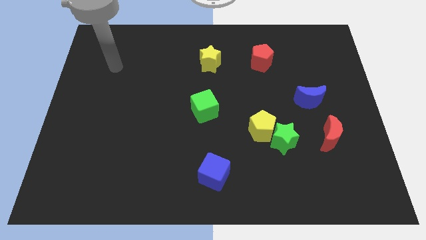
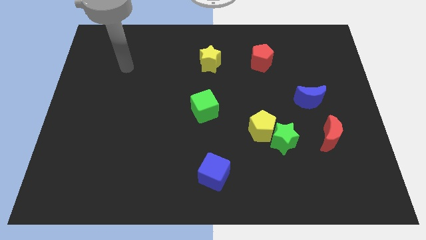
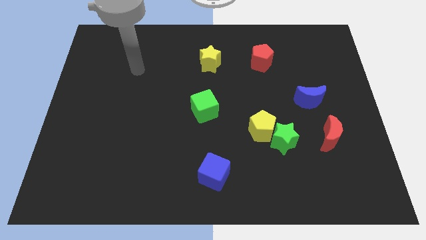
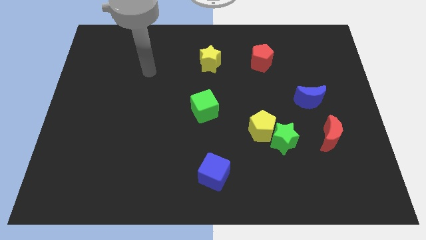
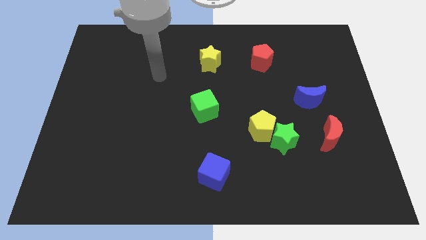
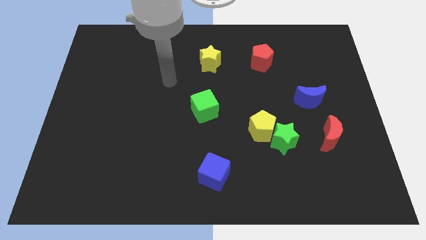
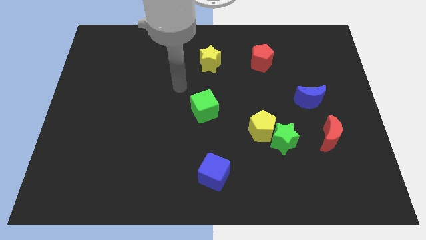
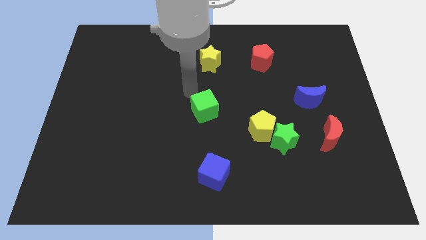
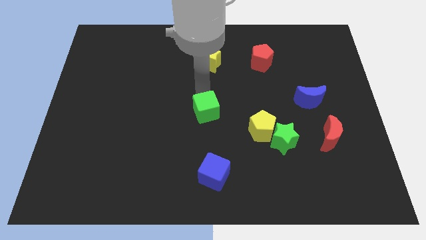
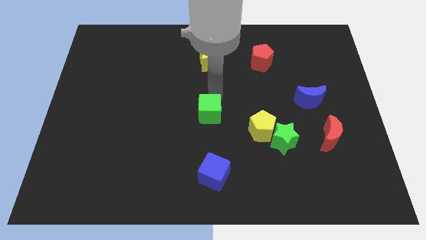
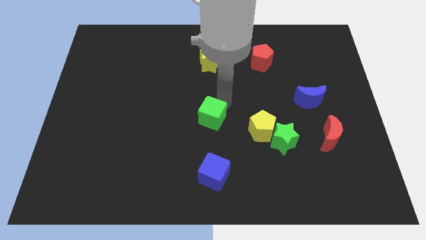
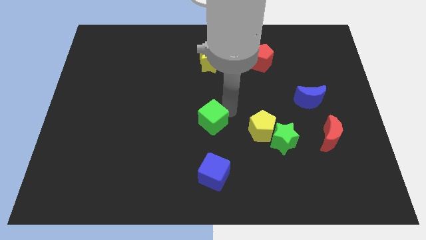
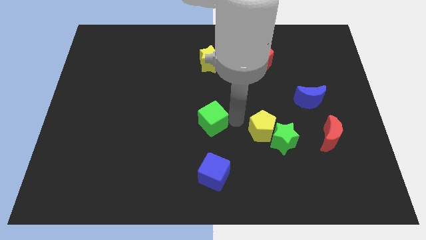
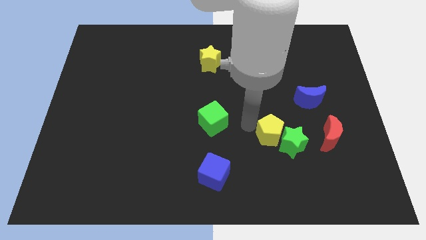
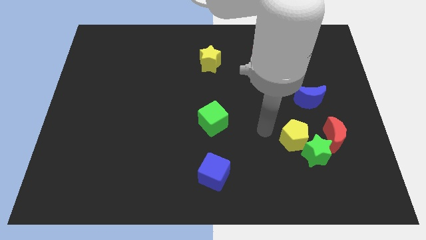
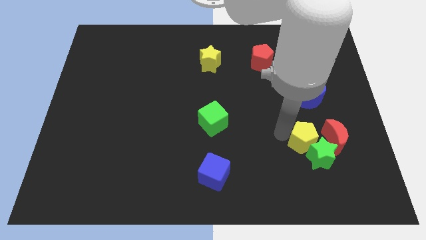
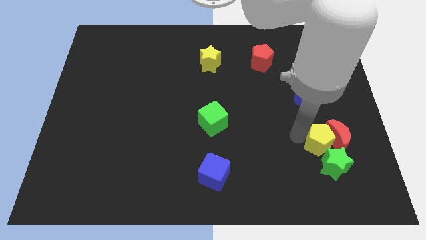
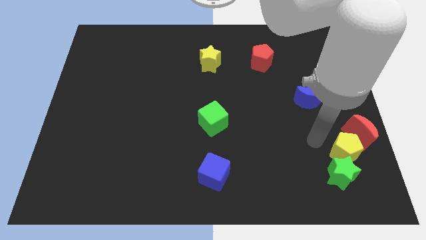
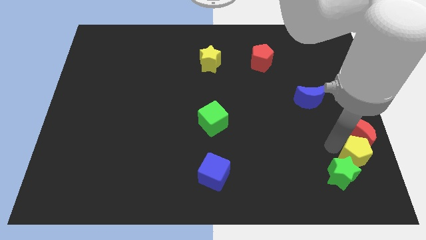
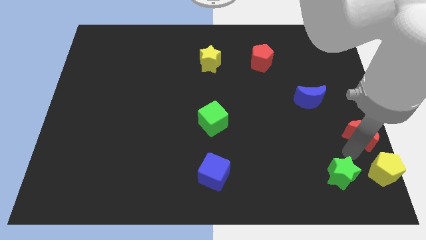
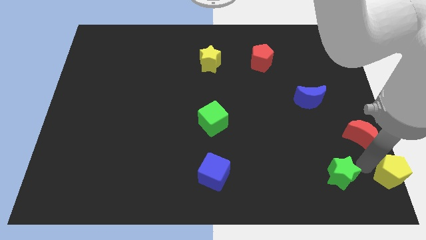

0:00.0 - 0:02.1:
move the green star away from the yellow pentagon

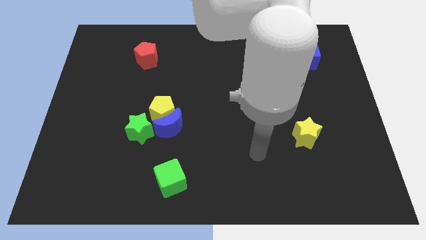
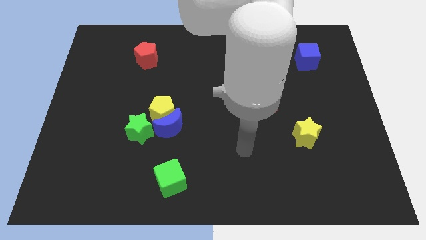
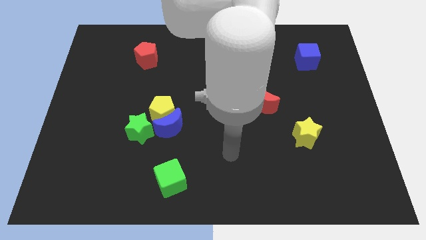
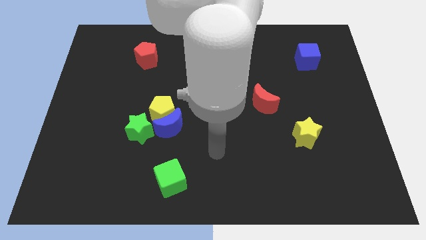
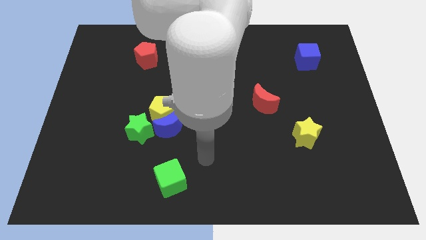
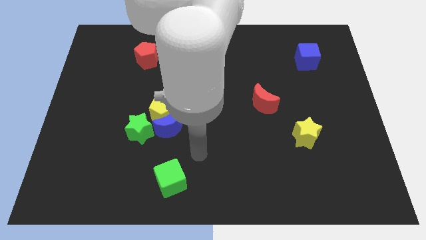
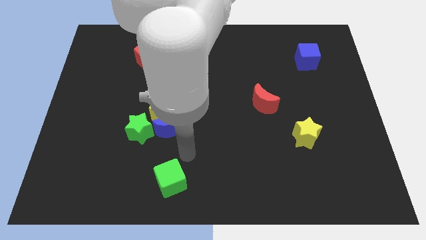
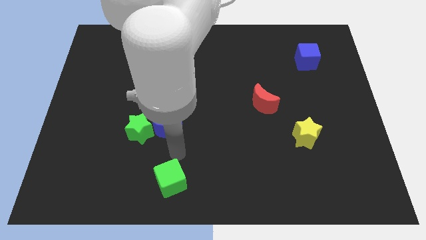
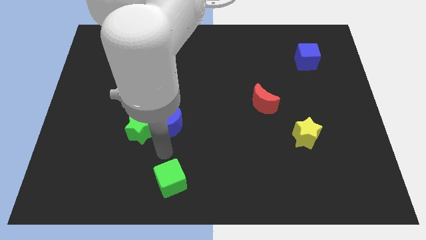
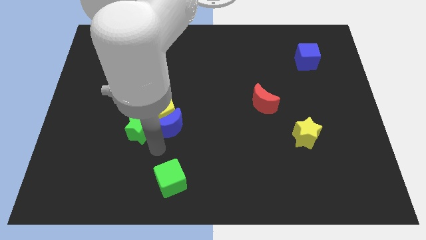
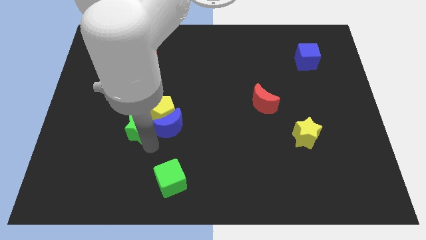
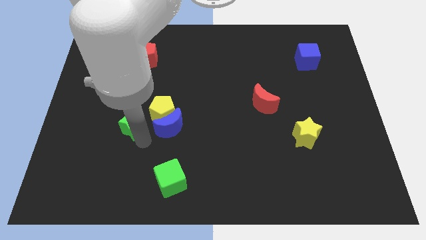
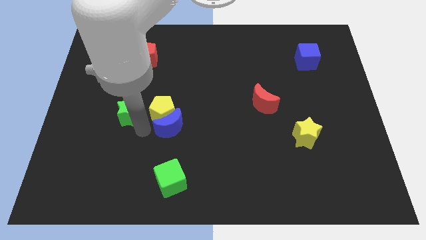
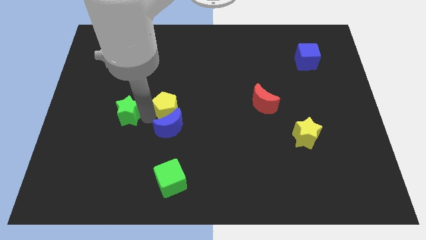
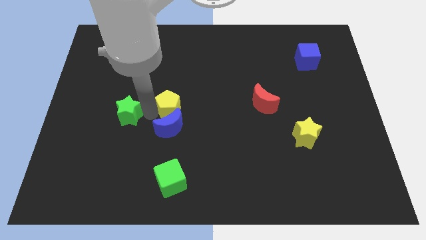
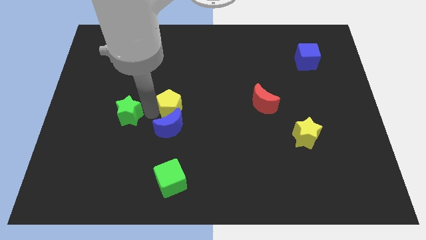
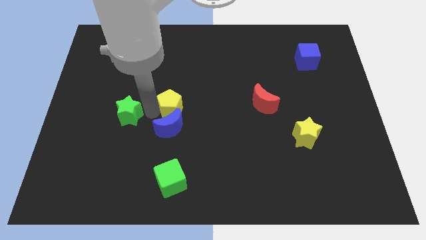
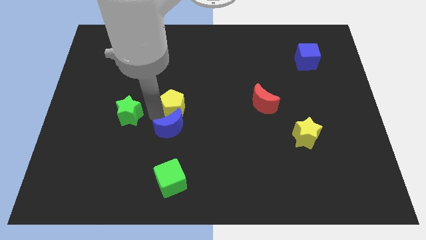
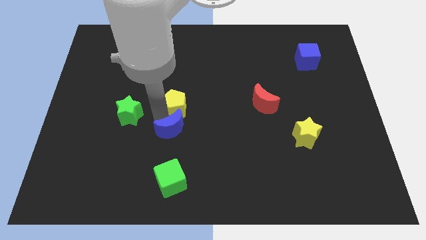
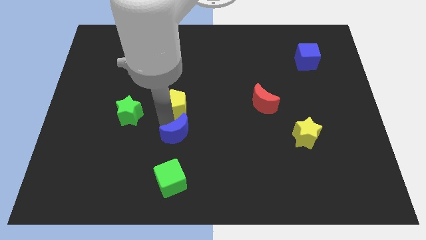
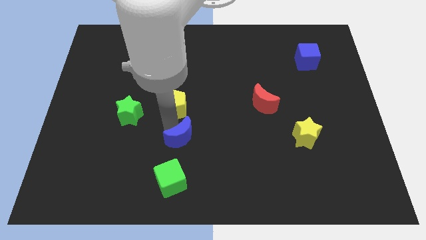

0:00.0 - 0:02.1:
pull the blue moon apart from the yellow pentagon and green star

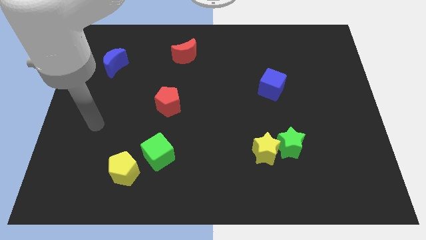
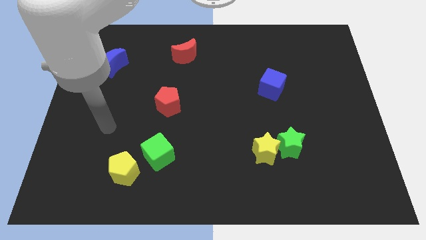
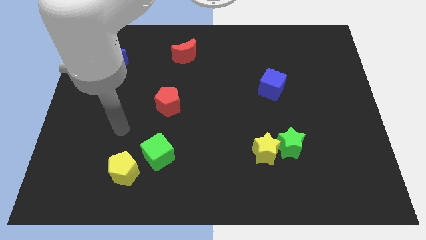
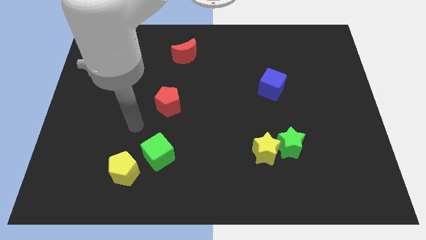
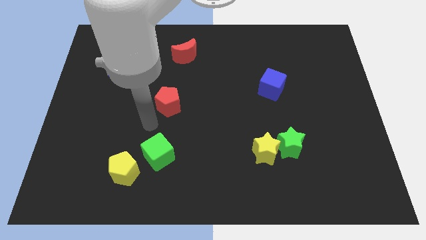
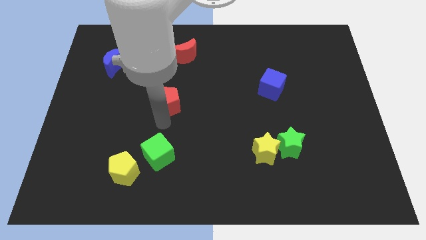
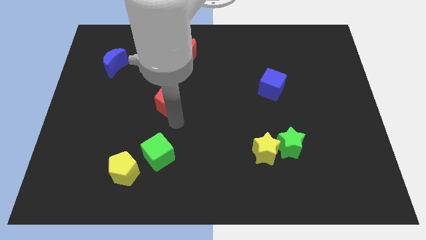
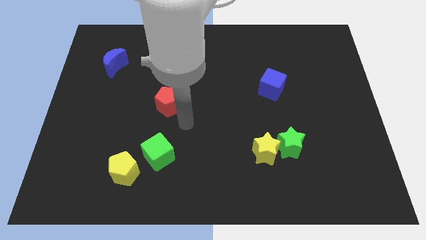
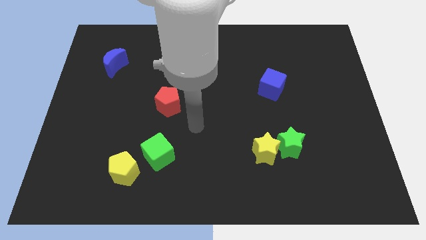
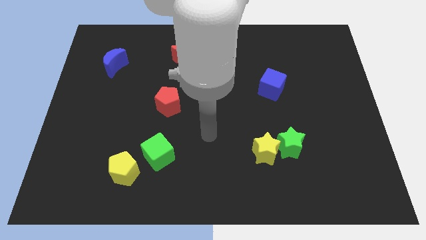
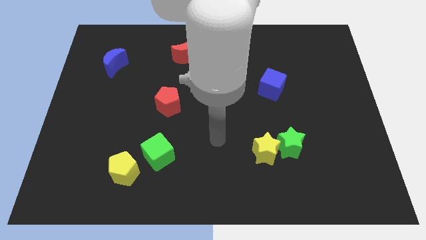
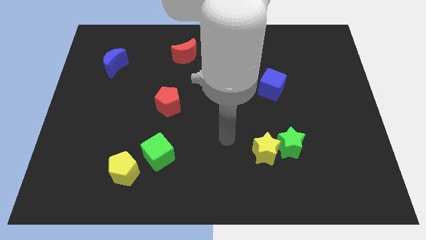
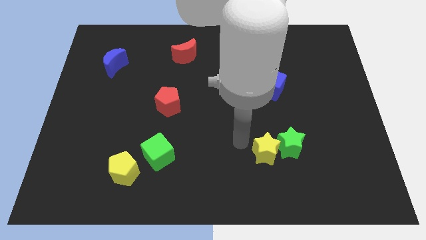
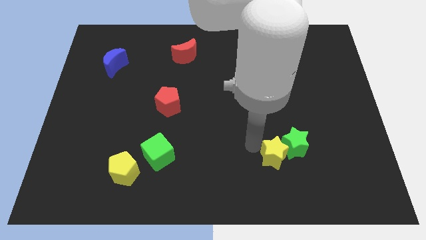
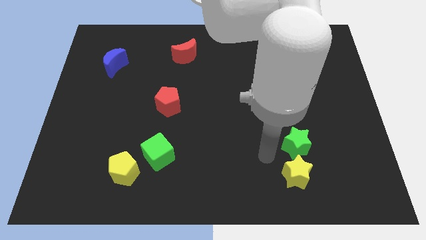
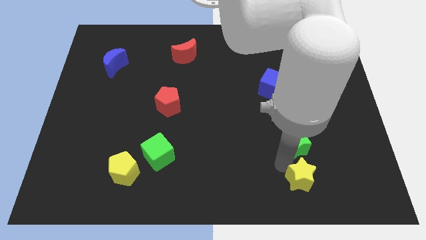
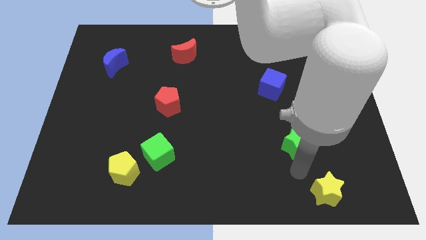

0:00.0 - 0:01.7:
move the green star away from the yellow star

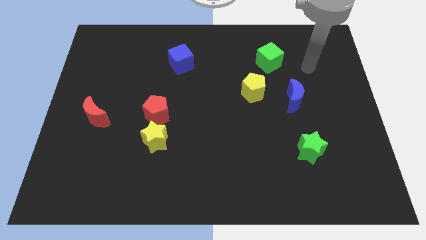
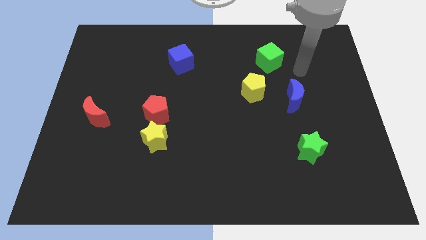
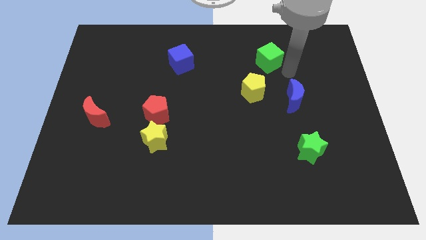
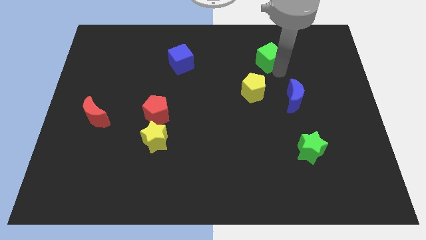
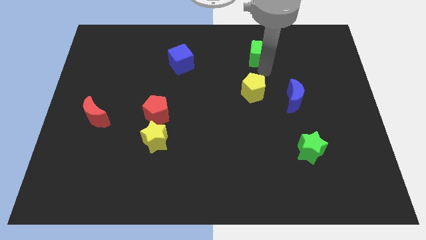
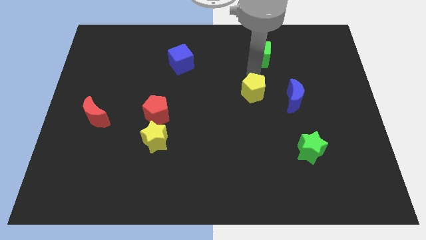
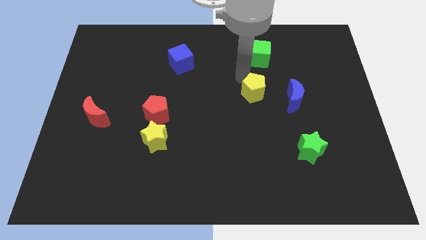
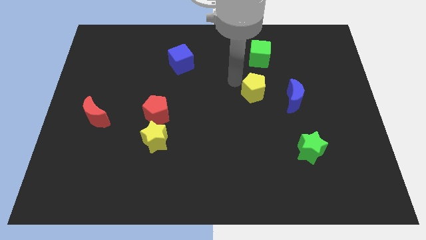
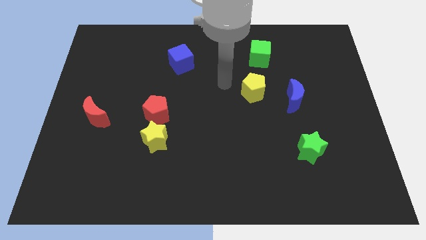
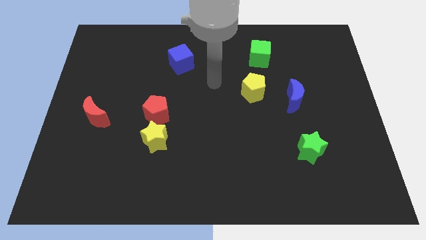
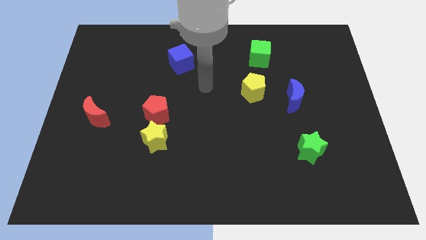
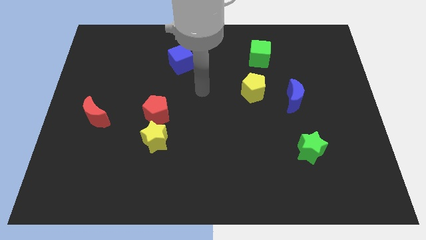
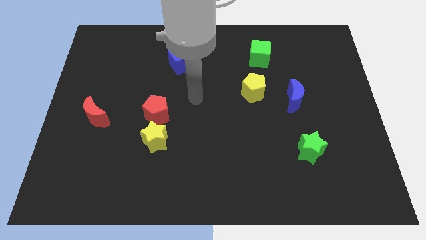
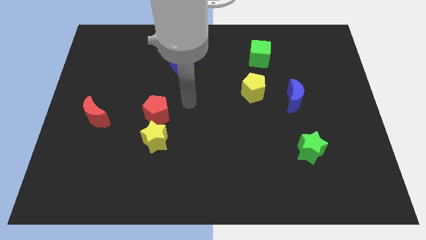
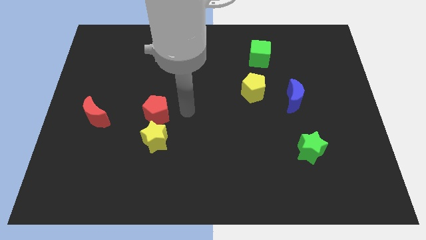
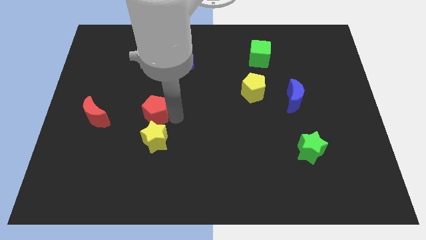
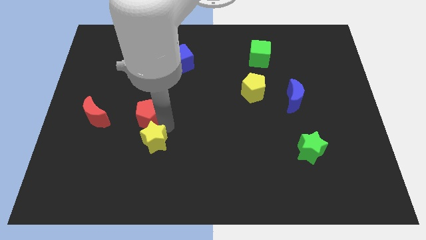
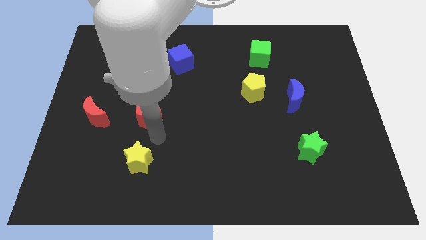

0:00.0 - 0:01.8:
separate the red pentagon from the yellow star

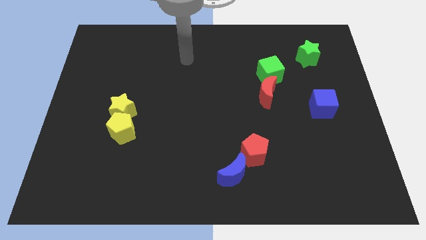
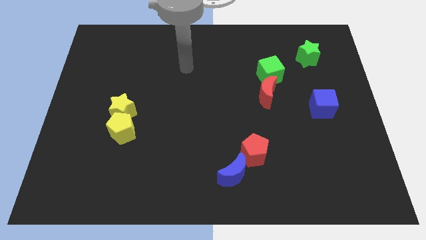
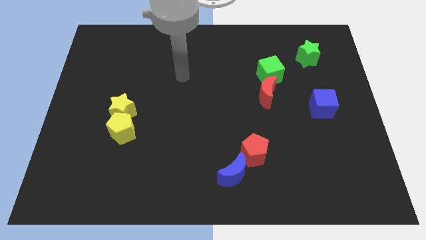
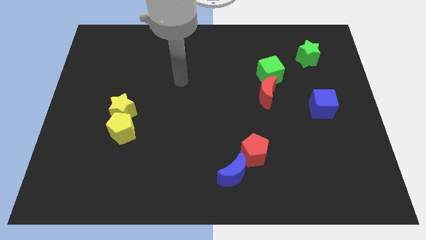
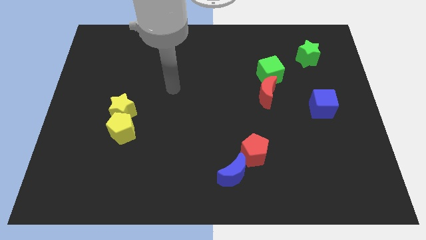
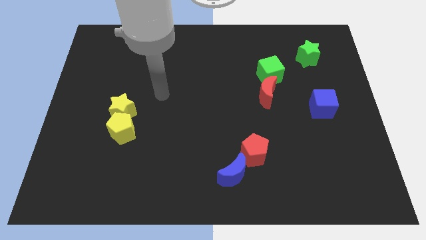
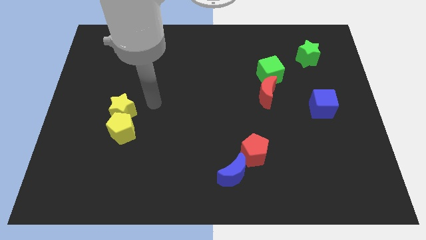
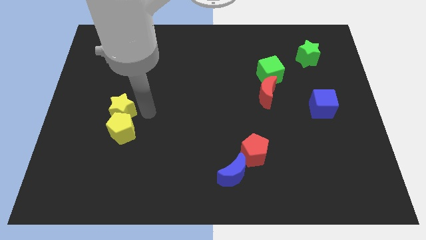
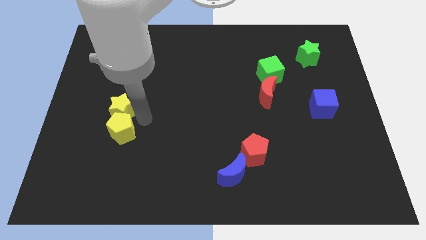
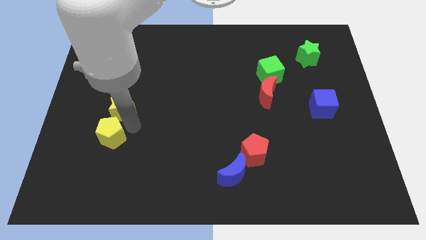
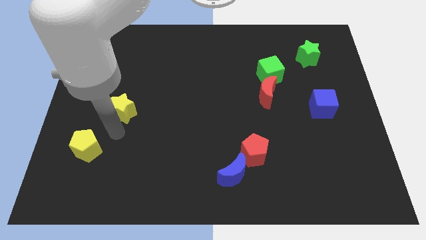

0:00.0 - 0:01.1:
pull the yellow star apart from the yellow pentagon

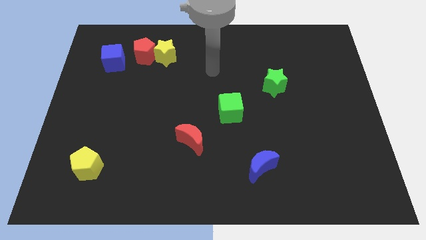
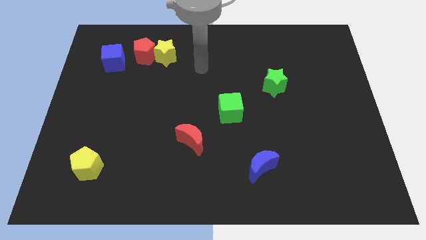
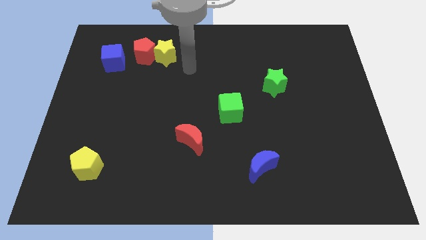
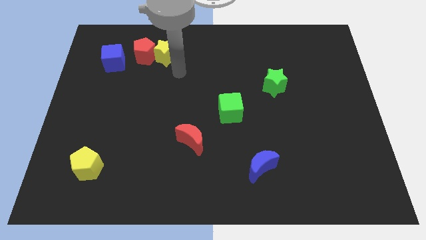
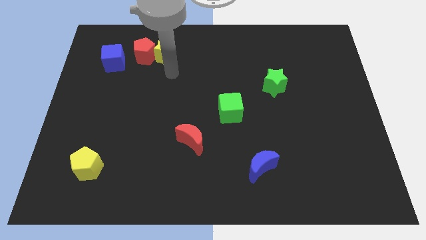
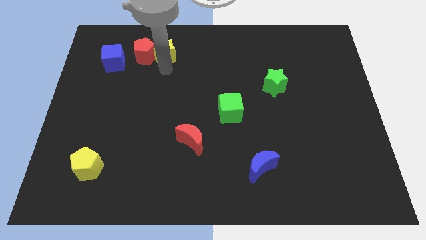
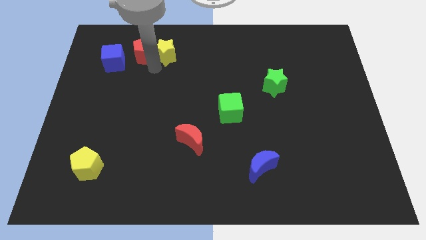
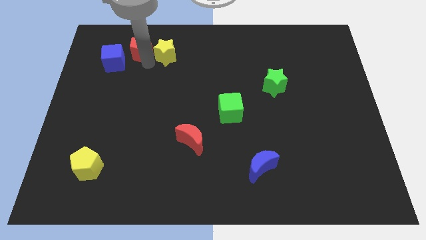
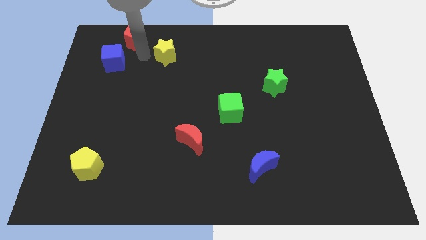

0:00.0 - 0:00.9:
move the yellow star away from the red pentagon
